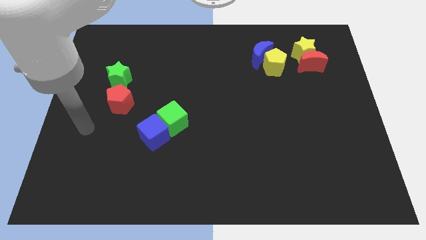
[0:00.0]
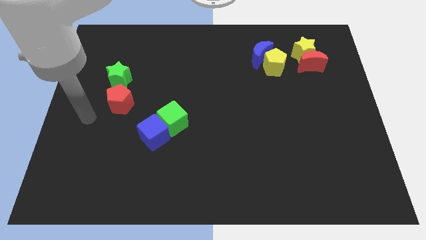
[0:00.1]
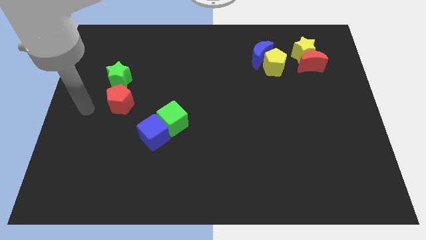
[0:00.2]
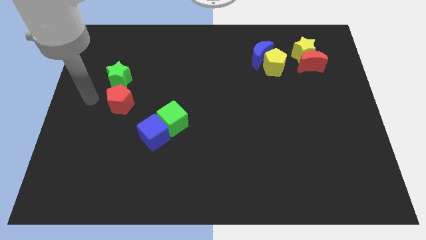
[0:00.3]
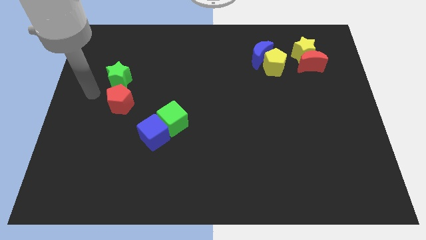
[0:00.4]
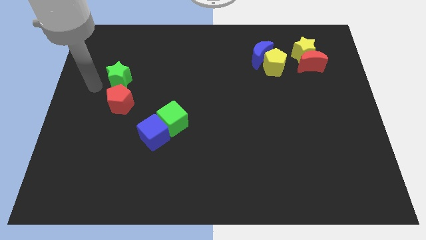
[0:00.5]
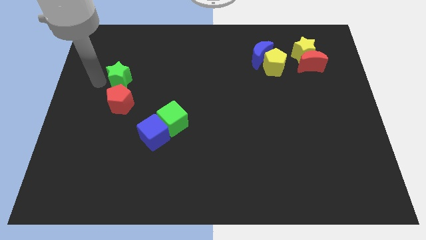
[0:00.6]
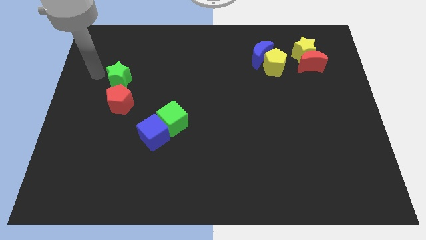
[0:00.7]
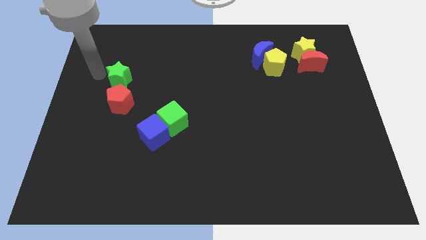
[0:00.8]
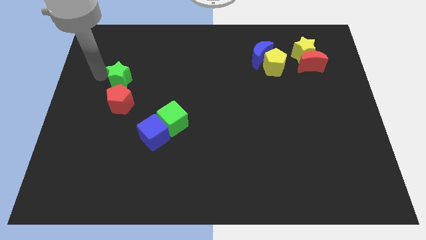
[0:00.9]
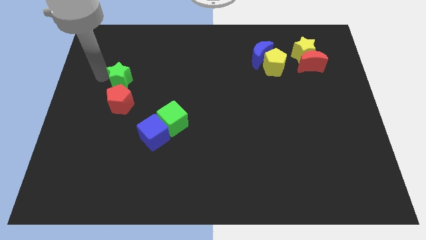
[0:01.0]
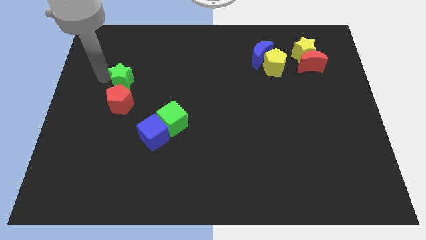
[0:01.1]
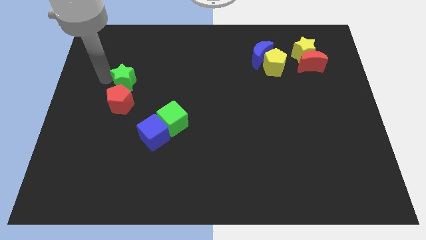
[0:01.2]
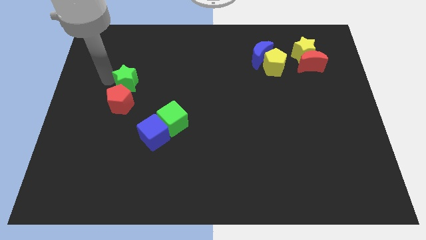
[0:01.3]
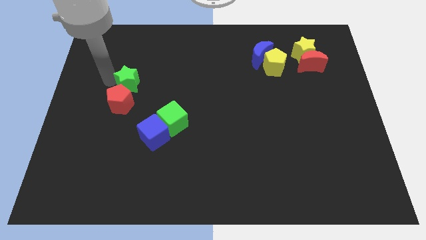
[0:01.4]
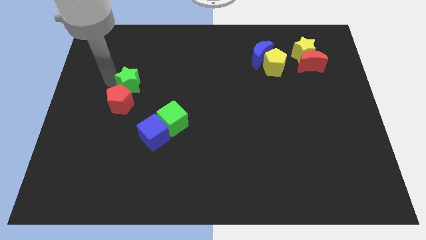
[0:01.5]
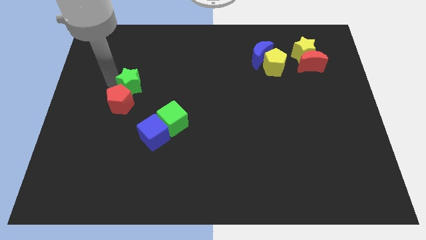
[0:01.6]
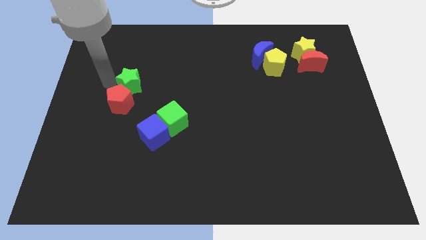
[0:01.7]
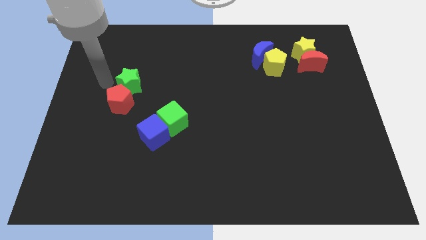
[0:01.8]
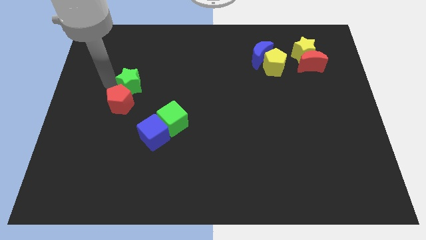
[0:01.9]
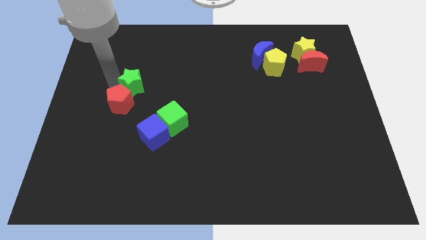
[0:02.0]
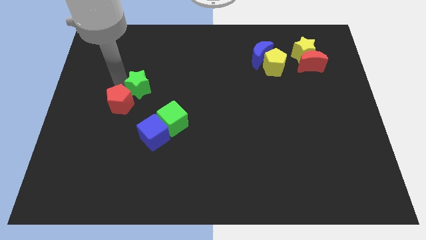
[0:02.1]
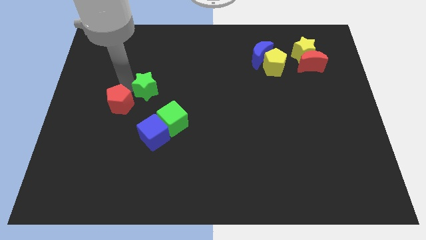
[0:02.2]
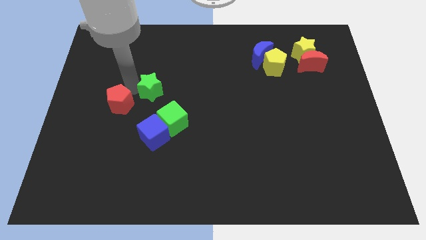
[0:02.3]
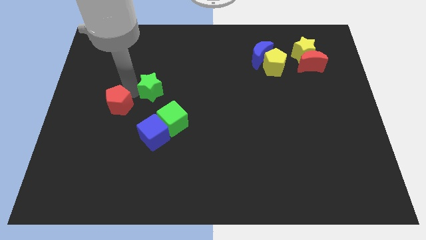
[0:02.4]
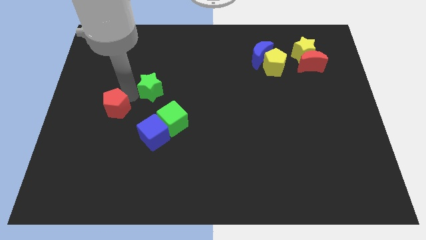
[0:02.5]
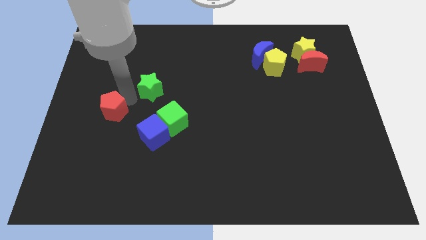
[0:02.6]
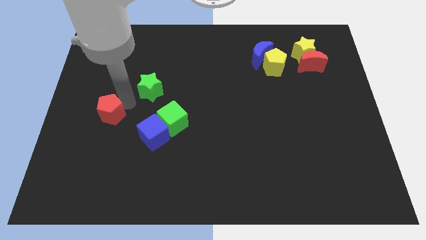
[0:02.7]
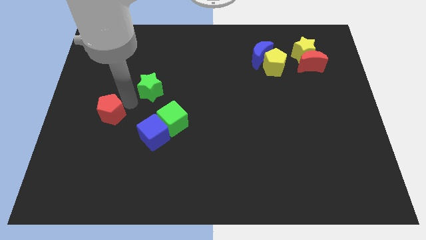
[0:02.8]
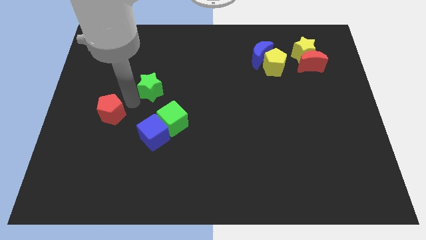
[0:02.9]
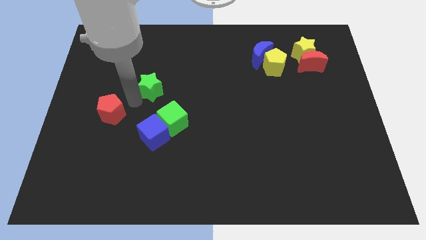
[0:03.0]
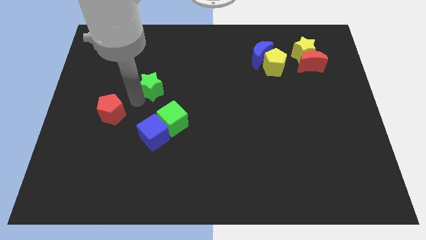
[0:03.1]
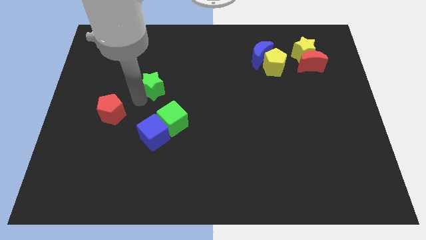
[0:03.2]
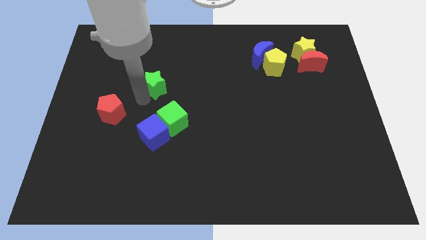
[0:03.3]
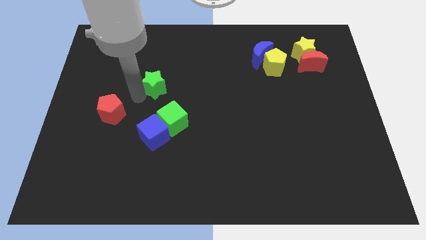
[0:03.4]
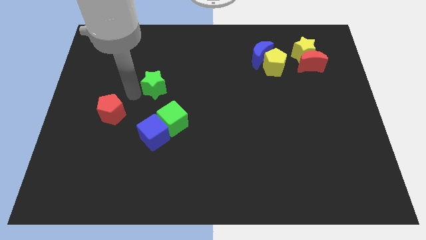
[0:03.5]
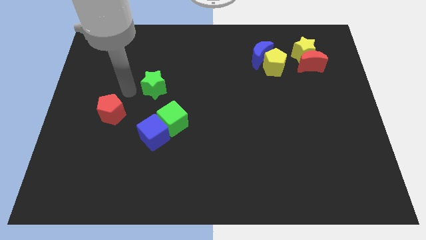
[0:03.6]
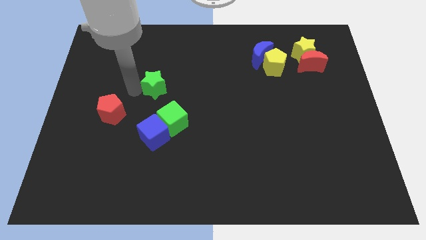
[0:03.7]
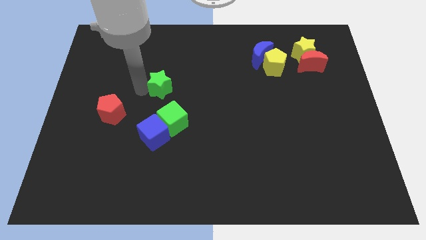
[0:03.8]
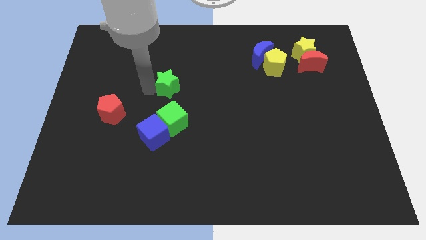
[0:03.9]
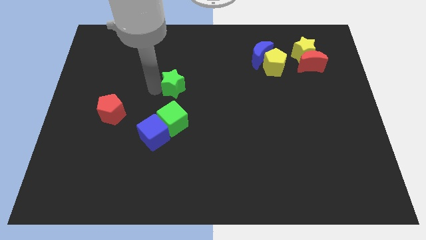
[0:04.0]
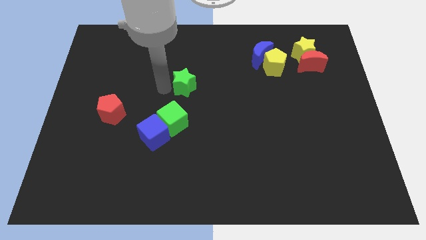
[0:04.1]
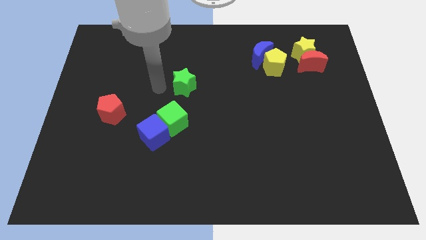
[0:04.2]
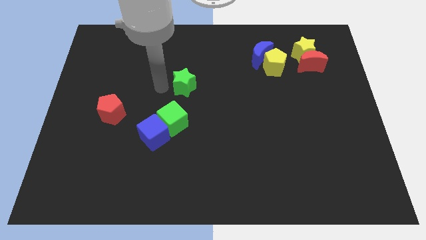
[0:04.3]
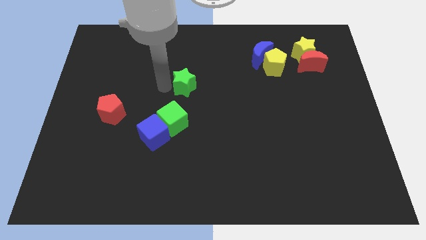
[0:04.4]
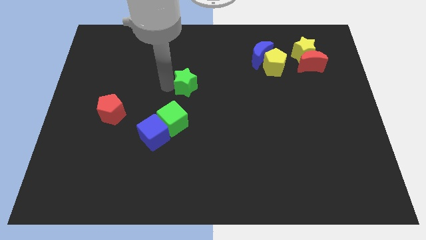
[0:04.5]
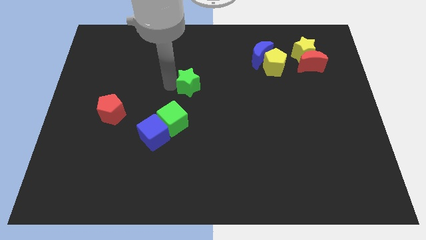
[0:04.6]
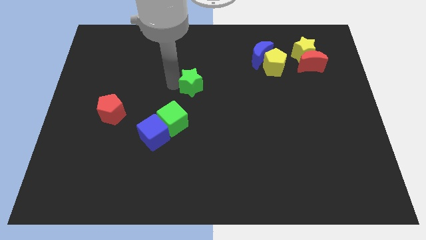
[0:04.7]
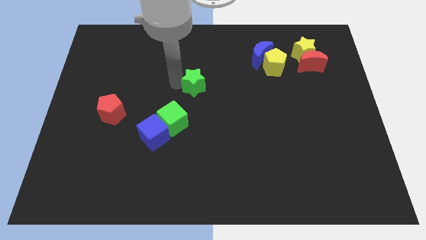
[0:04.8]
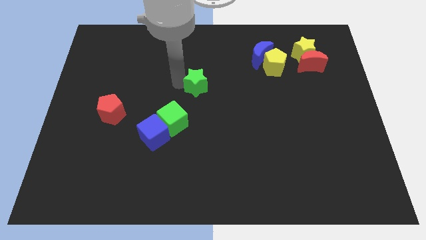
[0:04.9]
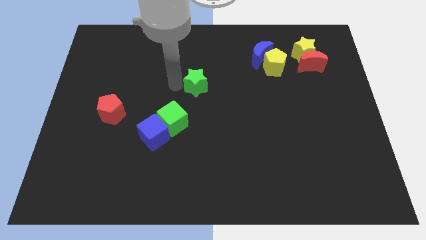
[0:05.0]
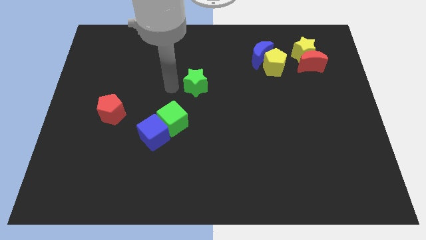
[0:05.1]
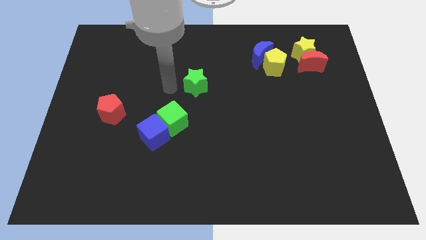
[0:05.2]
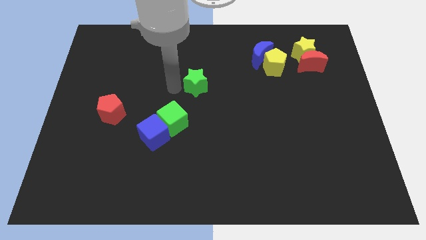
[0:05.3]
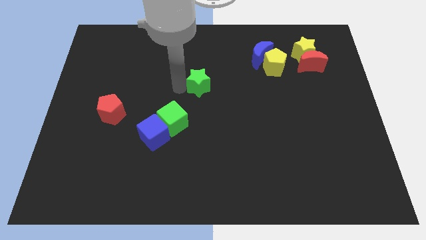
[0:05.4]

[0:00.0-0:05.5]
slide the green star right

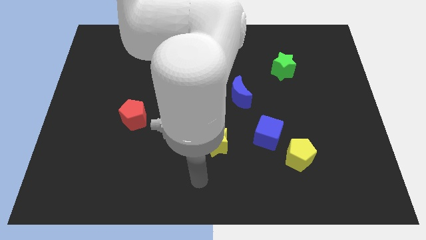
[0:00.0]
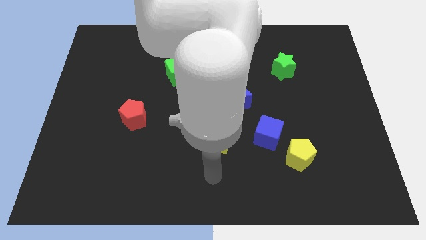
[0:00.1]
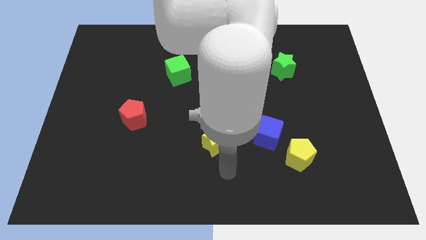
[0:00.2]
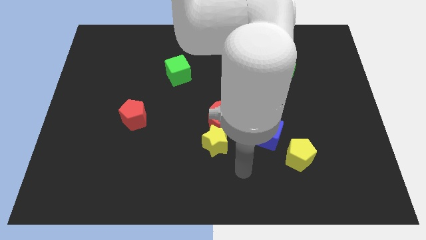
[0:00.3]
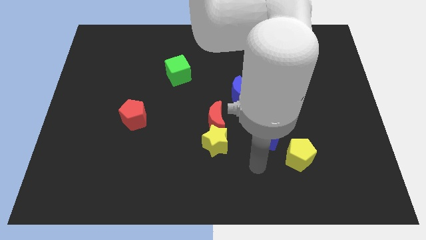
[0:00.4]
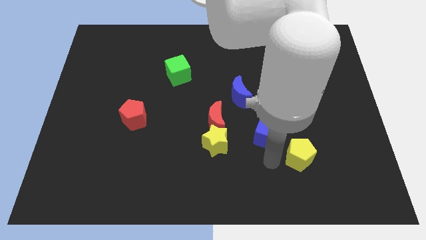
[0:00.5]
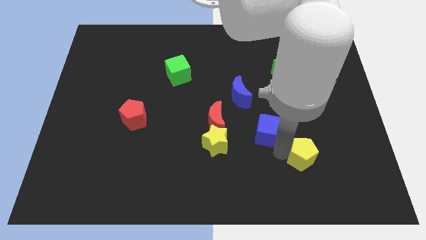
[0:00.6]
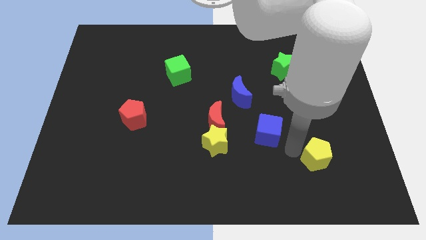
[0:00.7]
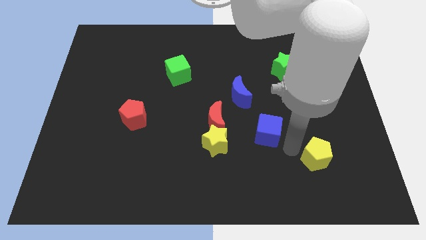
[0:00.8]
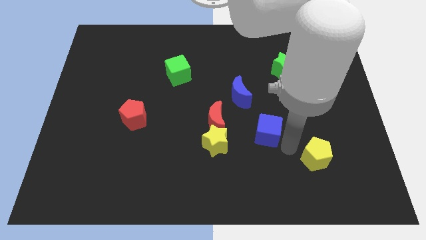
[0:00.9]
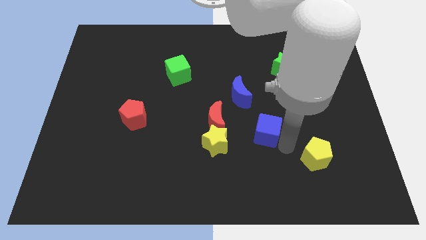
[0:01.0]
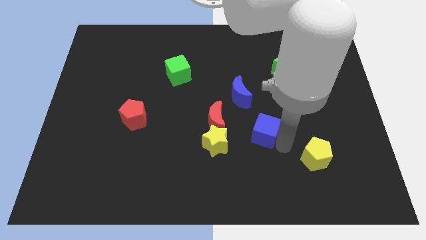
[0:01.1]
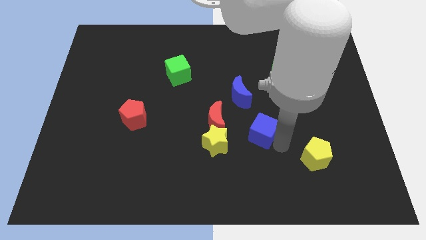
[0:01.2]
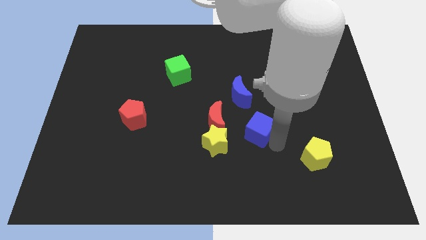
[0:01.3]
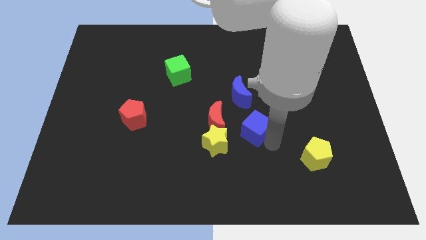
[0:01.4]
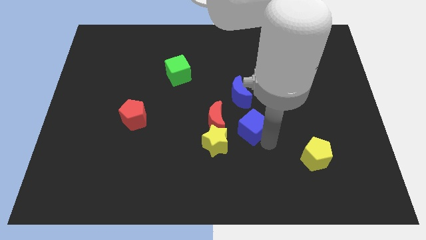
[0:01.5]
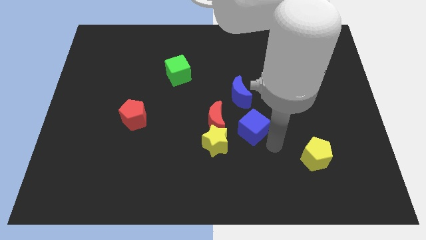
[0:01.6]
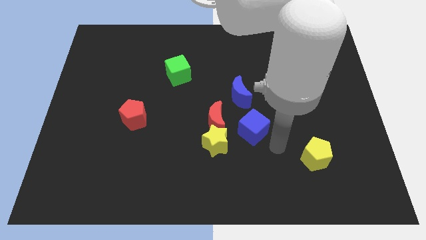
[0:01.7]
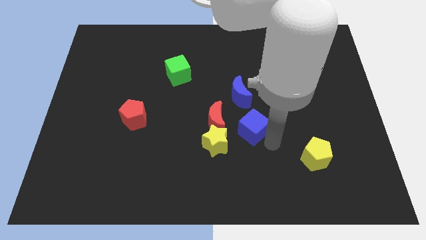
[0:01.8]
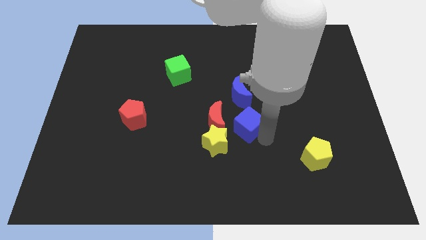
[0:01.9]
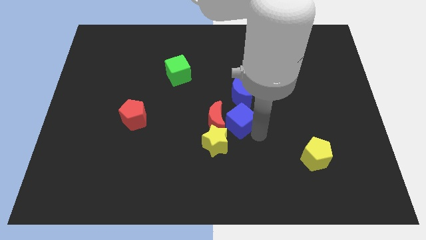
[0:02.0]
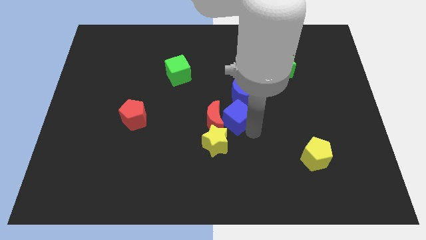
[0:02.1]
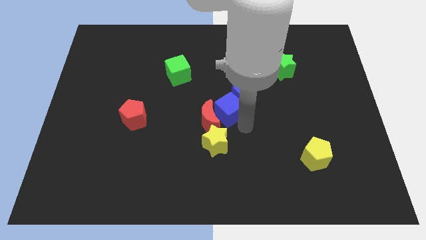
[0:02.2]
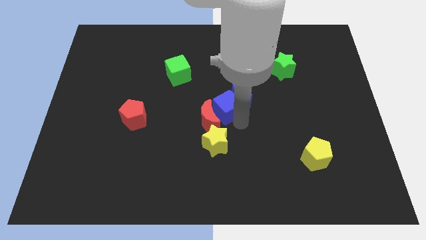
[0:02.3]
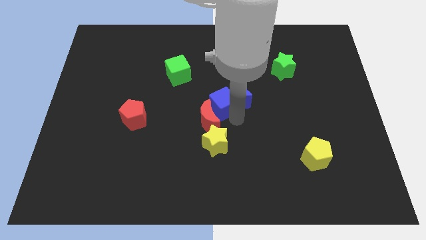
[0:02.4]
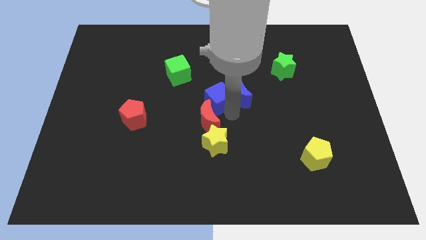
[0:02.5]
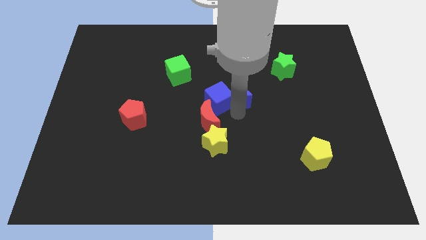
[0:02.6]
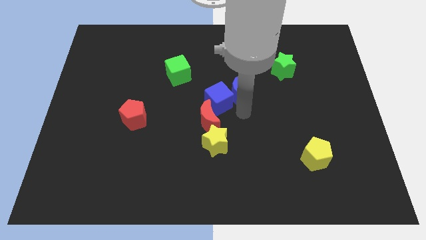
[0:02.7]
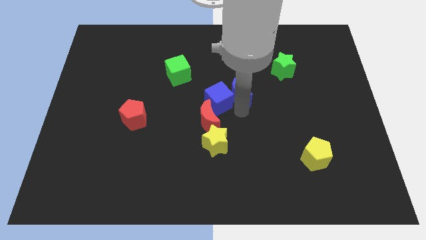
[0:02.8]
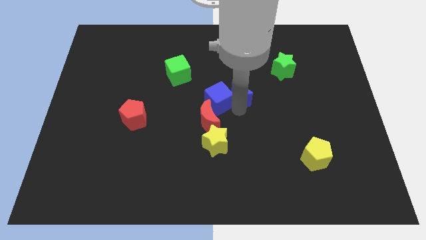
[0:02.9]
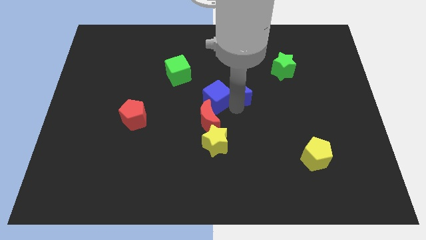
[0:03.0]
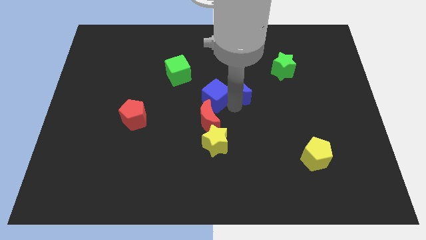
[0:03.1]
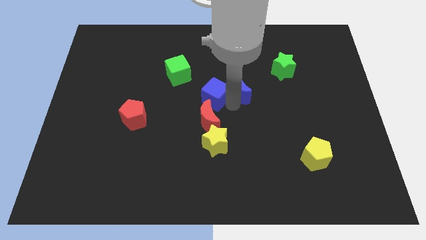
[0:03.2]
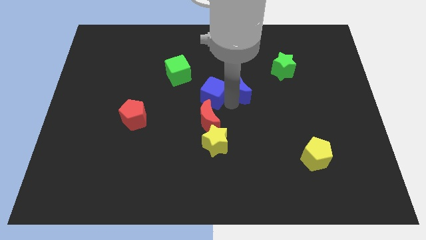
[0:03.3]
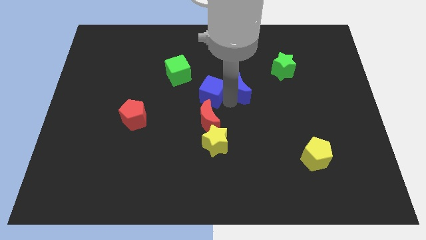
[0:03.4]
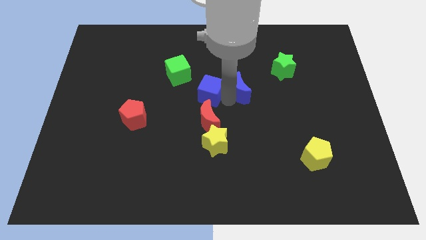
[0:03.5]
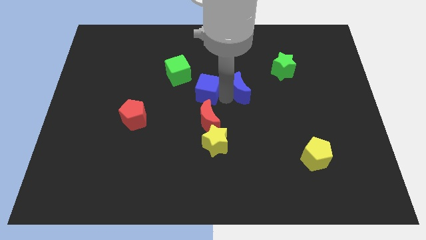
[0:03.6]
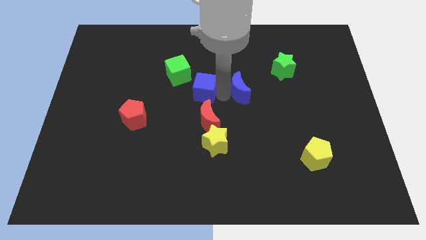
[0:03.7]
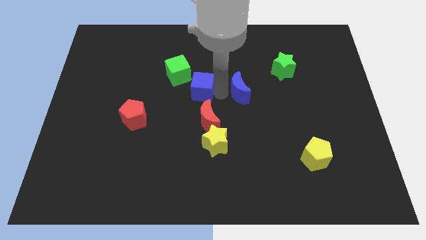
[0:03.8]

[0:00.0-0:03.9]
push the blue cube diagonally upwards and left
